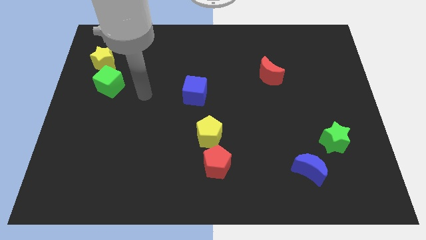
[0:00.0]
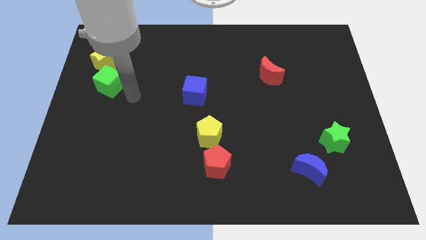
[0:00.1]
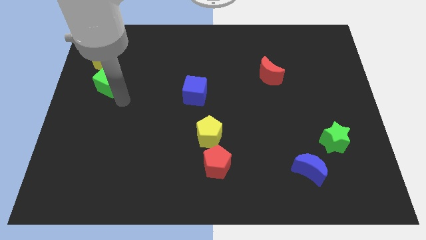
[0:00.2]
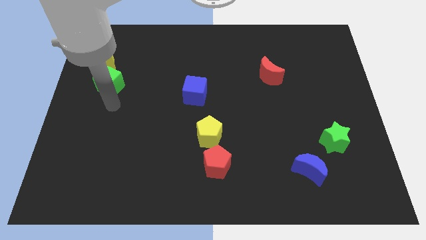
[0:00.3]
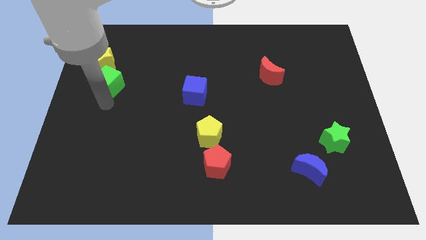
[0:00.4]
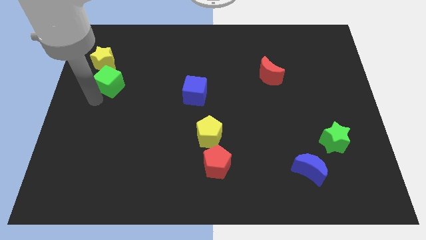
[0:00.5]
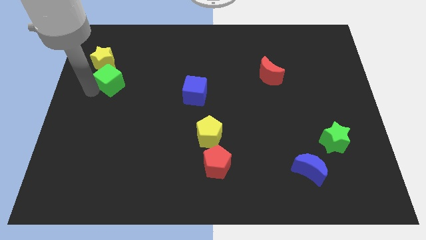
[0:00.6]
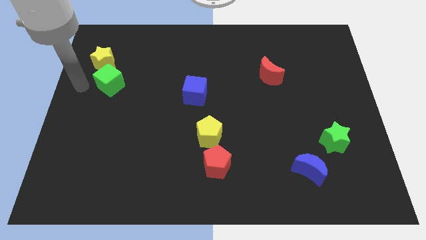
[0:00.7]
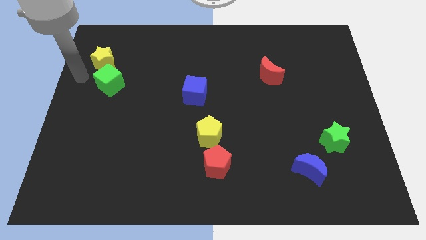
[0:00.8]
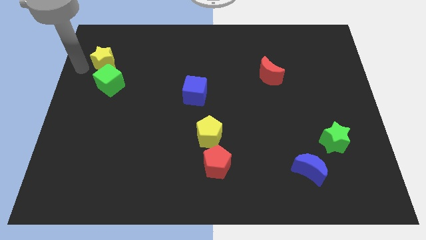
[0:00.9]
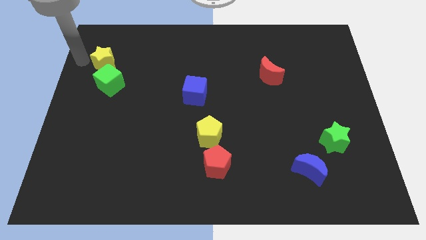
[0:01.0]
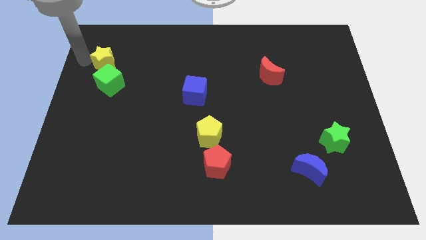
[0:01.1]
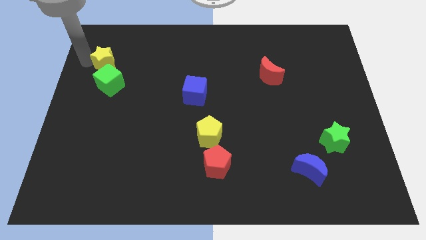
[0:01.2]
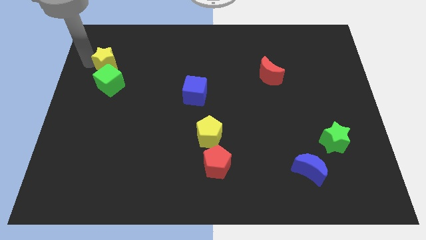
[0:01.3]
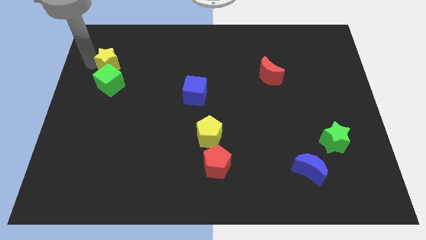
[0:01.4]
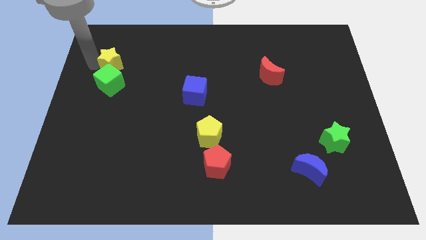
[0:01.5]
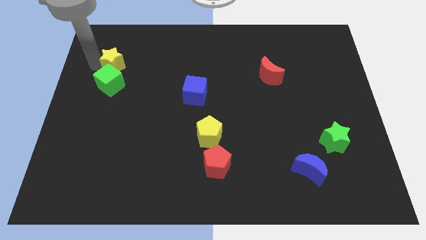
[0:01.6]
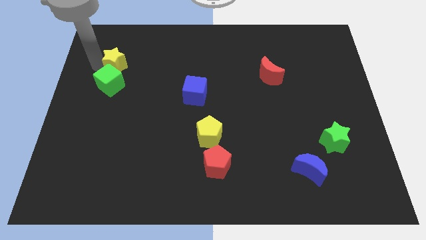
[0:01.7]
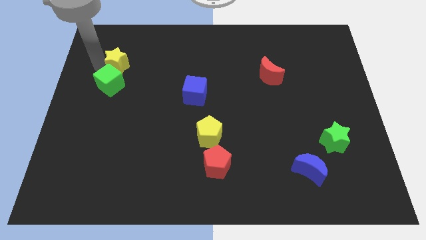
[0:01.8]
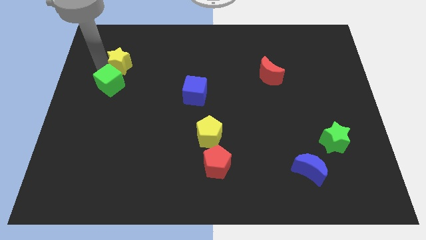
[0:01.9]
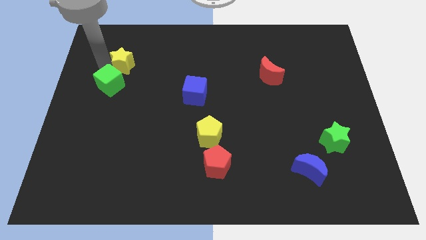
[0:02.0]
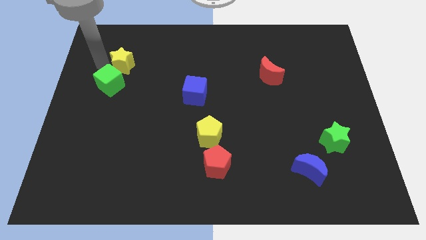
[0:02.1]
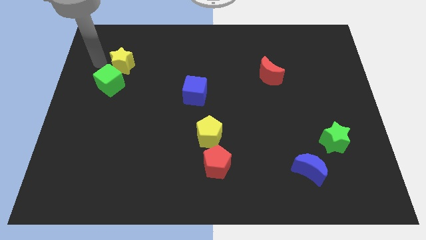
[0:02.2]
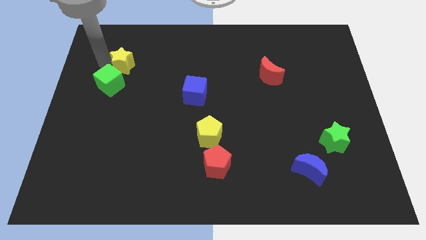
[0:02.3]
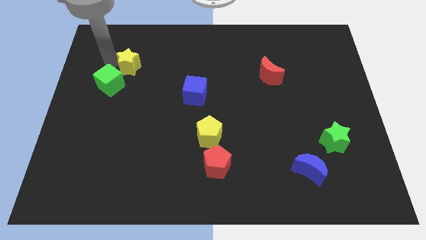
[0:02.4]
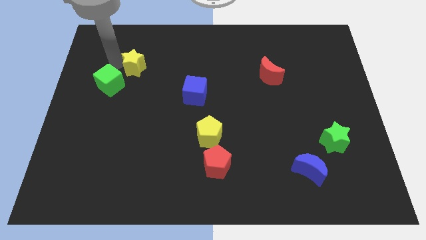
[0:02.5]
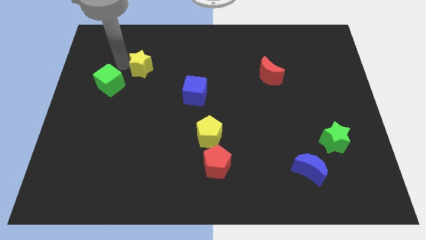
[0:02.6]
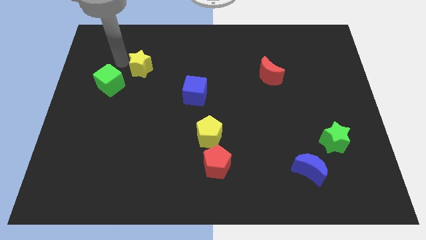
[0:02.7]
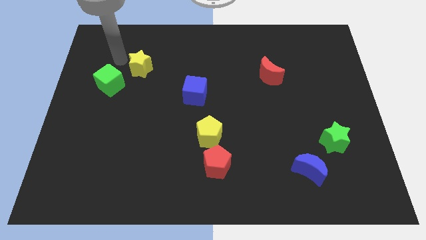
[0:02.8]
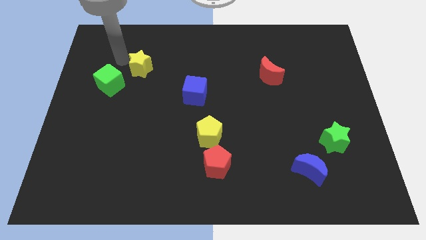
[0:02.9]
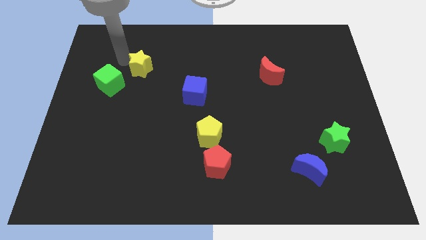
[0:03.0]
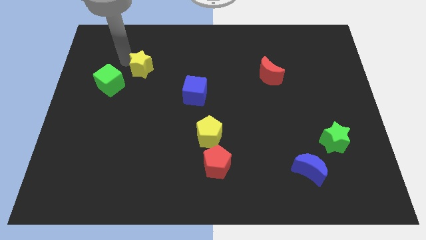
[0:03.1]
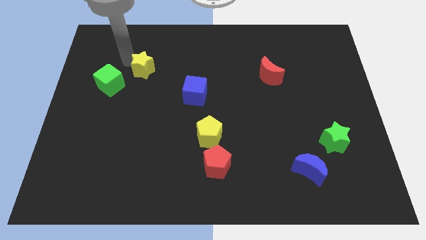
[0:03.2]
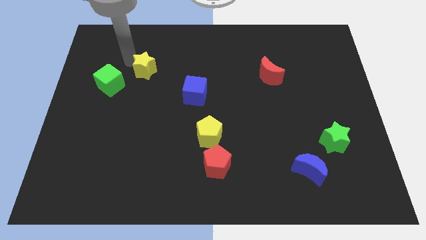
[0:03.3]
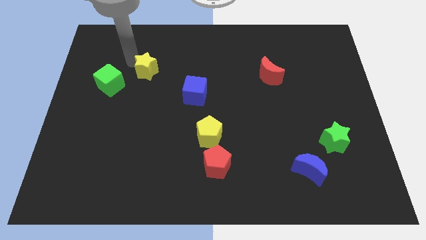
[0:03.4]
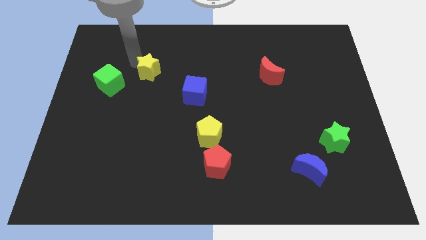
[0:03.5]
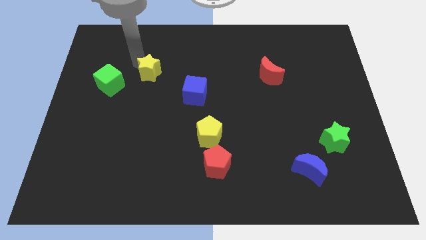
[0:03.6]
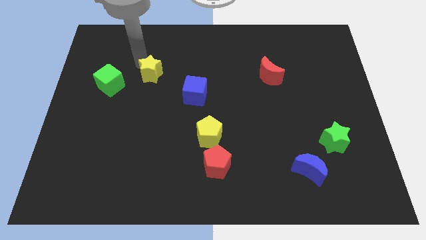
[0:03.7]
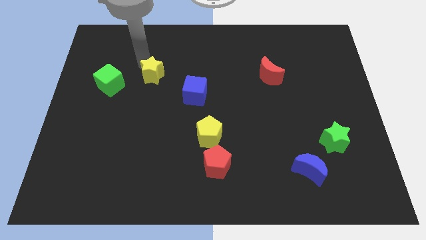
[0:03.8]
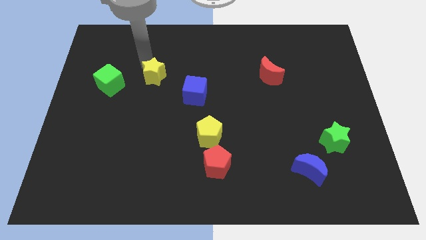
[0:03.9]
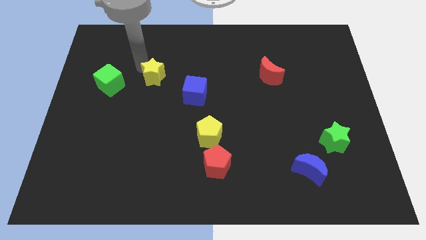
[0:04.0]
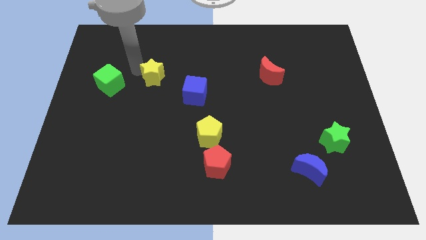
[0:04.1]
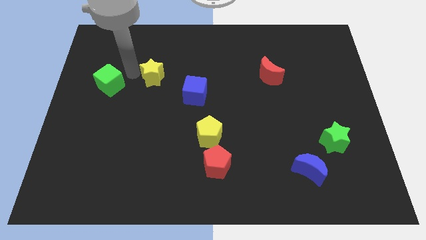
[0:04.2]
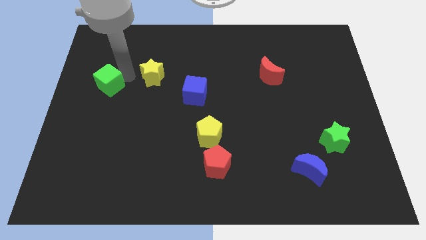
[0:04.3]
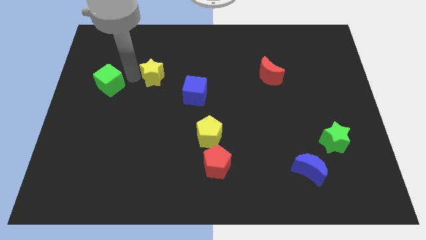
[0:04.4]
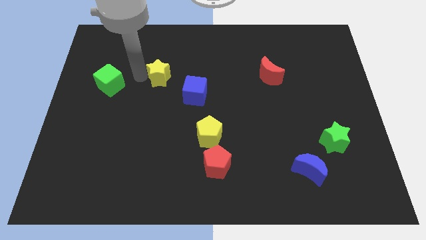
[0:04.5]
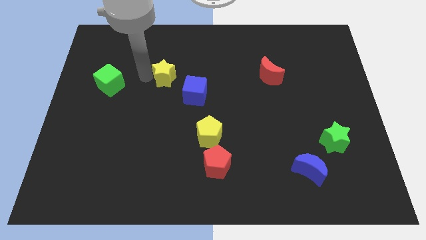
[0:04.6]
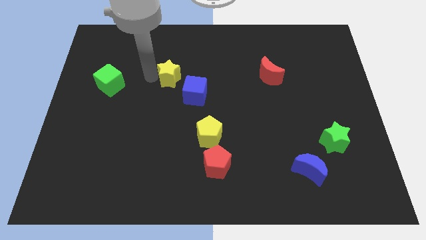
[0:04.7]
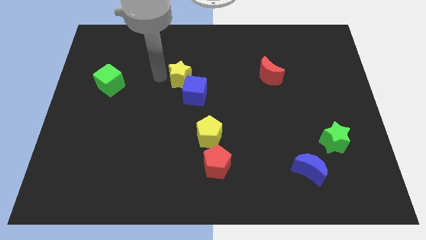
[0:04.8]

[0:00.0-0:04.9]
slide the yellow star to the center of the board

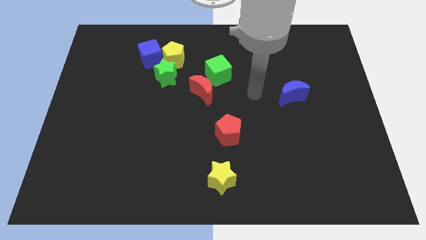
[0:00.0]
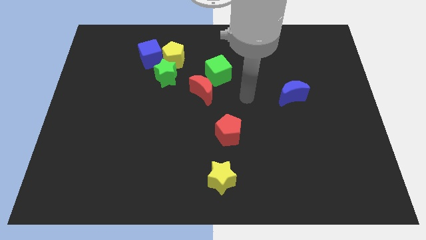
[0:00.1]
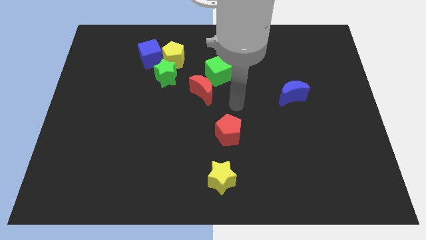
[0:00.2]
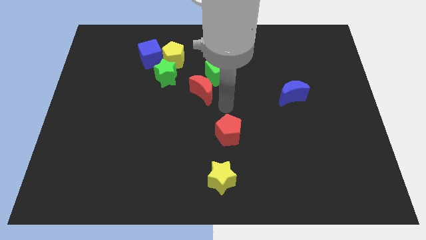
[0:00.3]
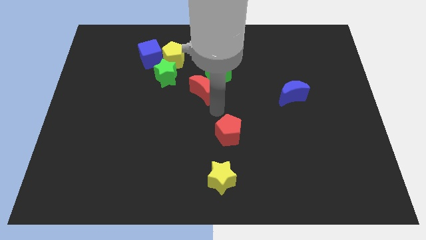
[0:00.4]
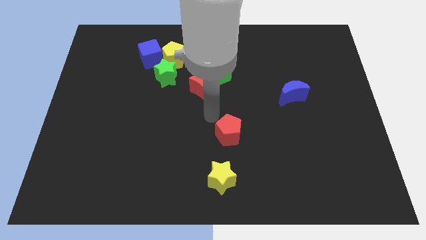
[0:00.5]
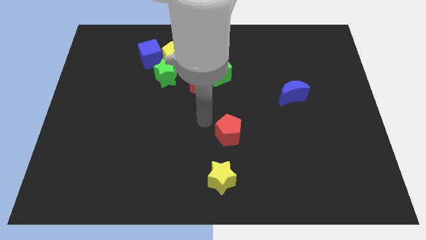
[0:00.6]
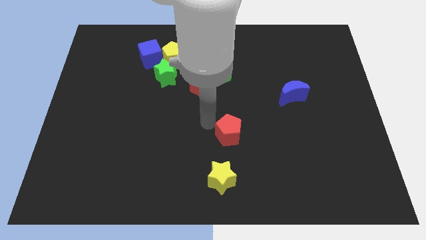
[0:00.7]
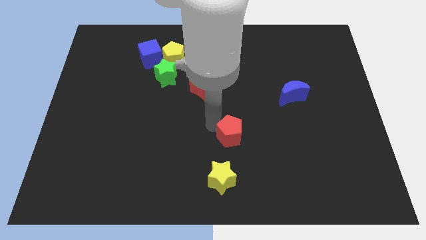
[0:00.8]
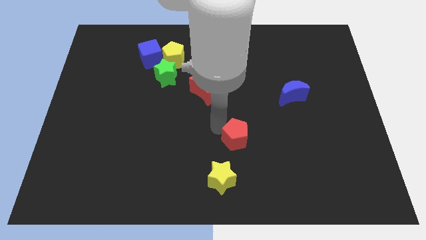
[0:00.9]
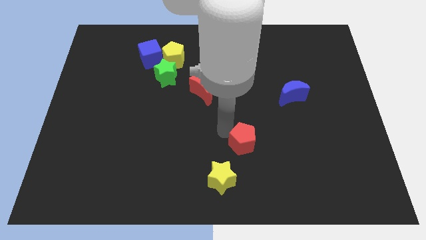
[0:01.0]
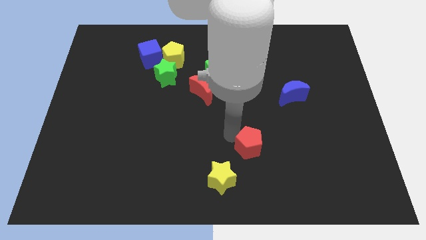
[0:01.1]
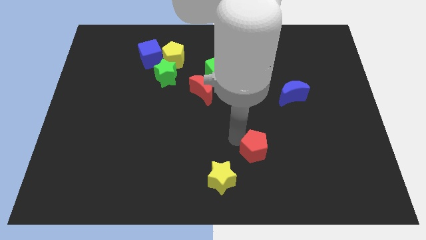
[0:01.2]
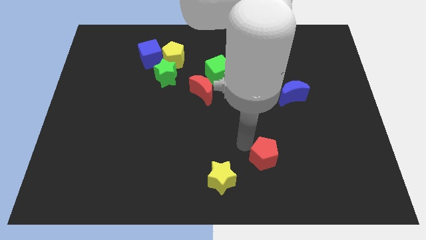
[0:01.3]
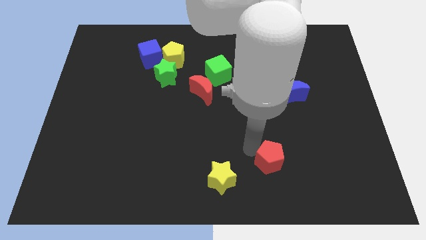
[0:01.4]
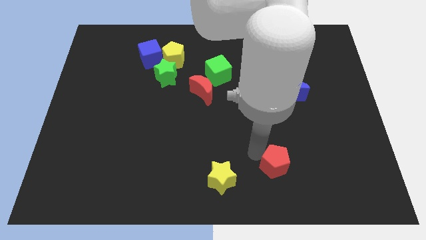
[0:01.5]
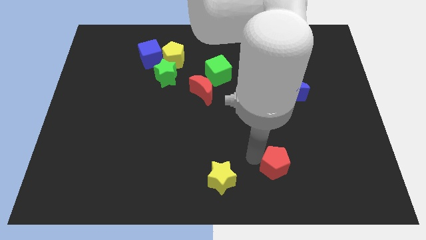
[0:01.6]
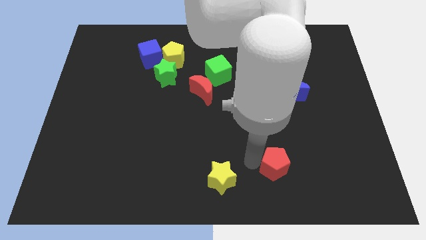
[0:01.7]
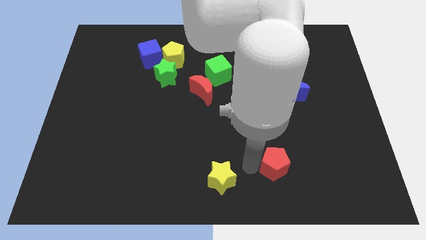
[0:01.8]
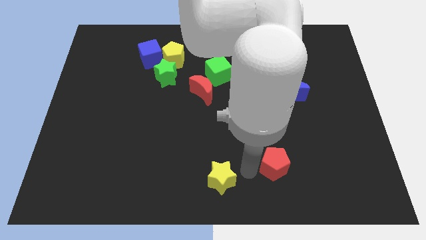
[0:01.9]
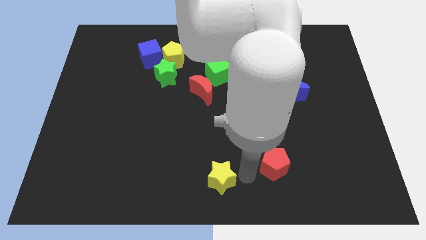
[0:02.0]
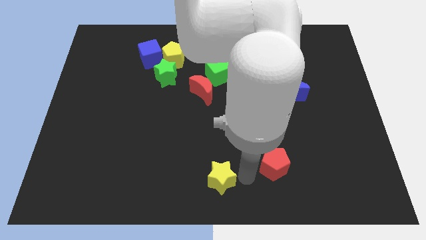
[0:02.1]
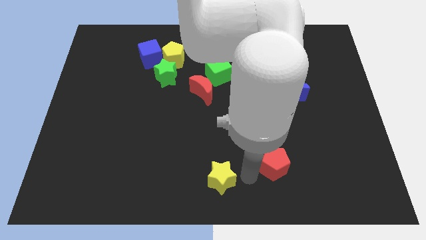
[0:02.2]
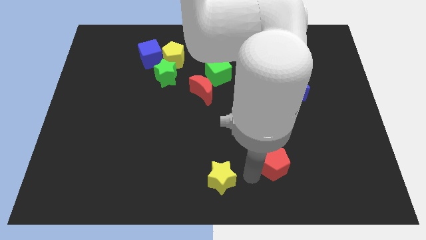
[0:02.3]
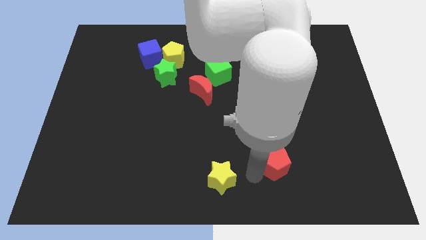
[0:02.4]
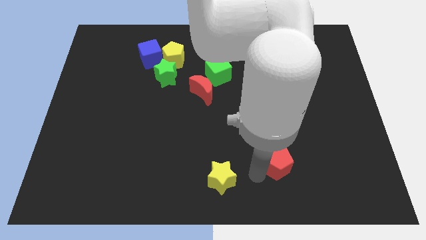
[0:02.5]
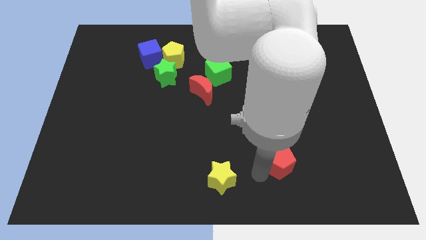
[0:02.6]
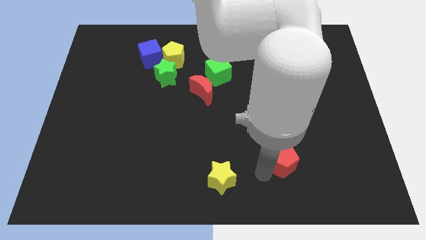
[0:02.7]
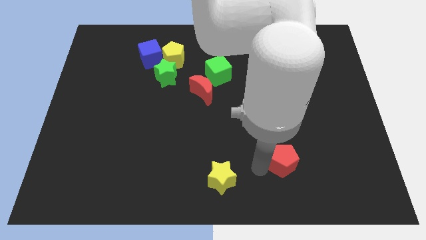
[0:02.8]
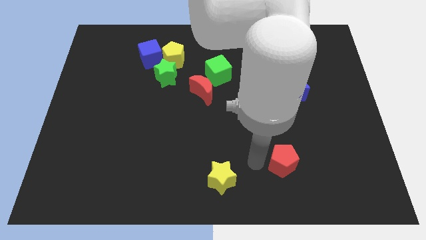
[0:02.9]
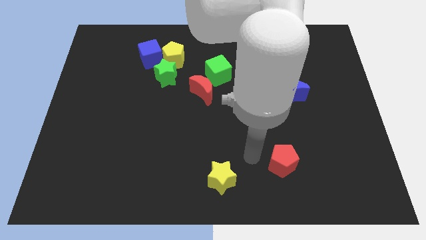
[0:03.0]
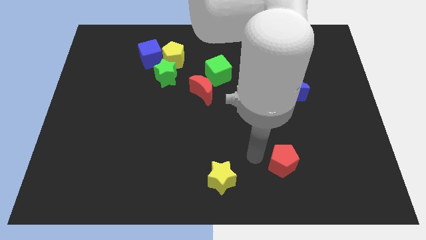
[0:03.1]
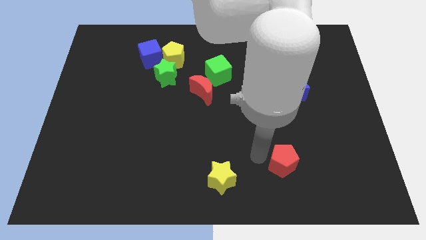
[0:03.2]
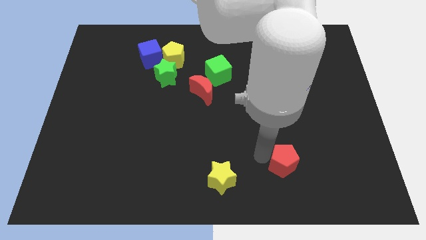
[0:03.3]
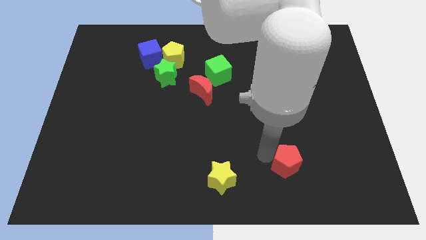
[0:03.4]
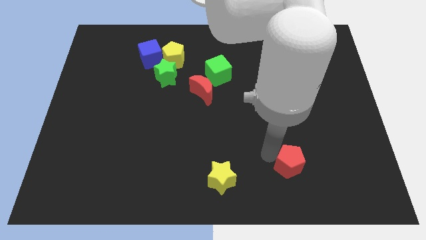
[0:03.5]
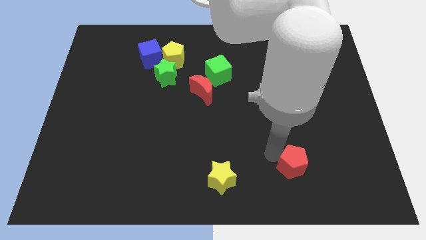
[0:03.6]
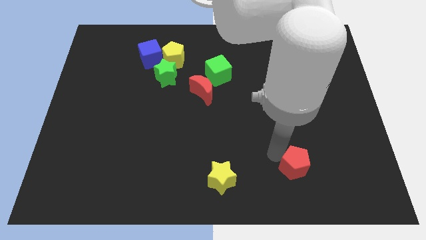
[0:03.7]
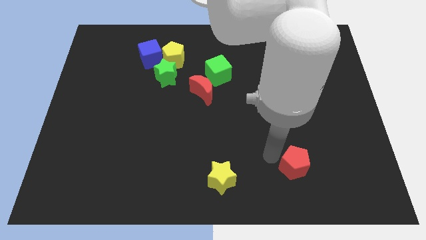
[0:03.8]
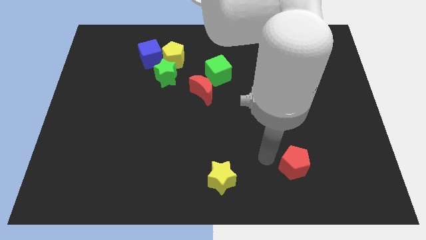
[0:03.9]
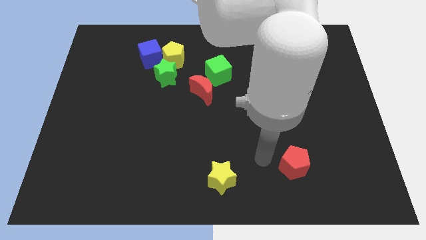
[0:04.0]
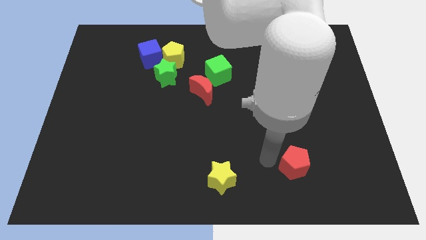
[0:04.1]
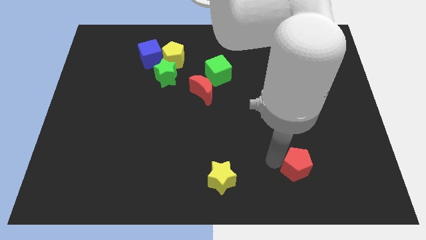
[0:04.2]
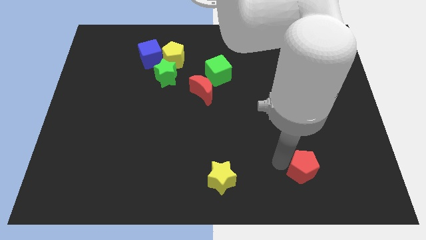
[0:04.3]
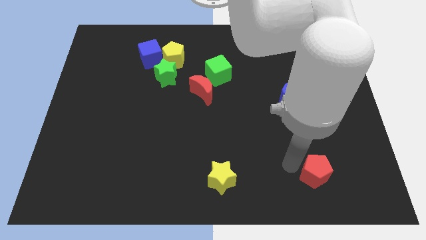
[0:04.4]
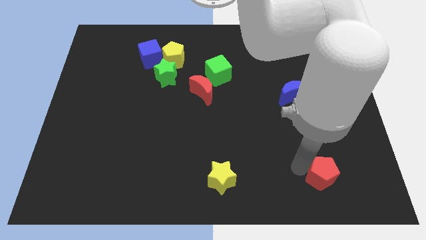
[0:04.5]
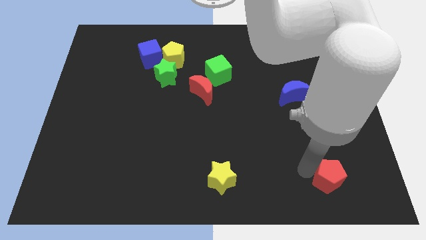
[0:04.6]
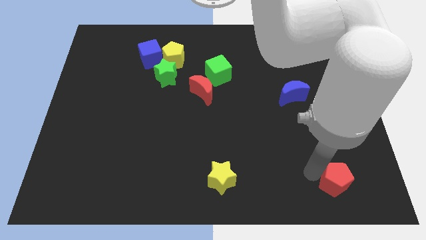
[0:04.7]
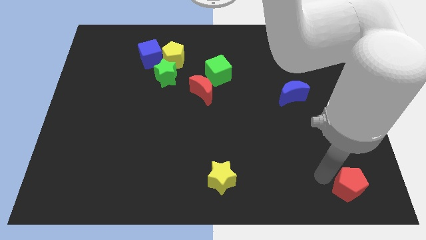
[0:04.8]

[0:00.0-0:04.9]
slide the red pentagon to the bottom right
